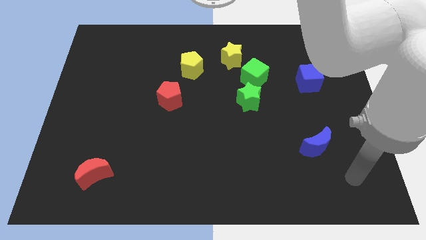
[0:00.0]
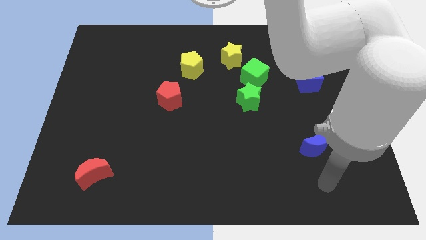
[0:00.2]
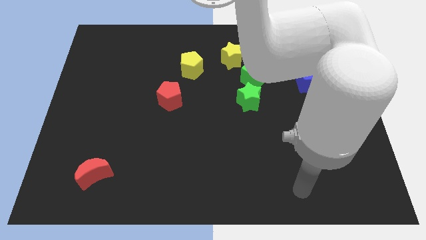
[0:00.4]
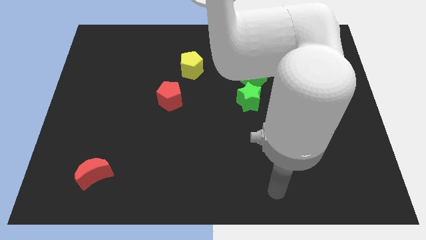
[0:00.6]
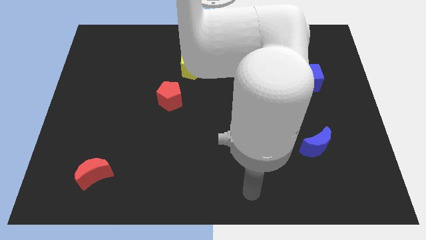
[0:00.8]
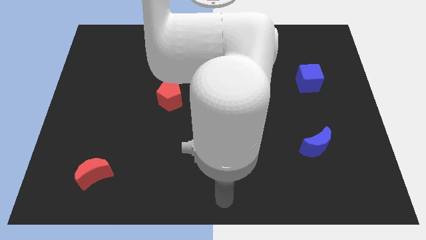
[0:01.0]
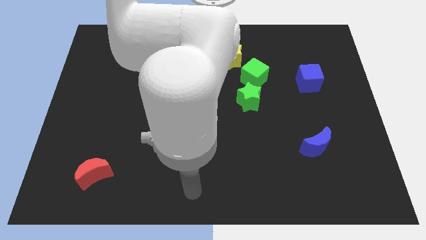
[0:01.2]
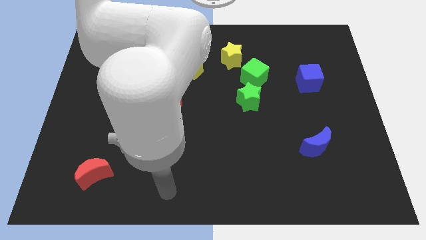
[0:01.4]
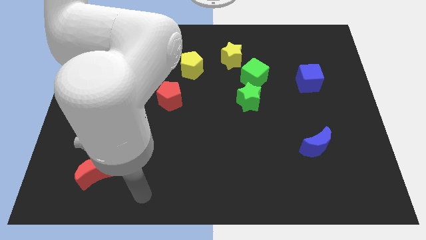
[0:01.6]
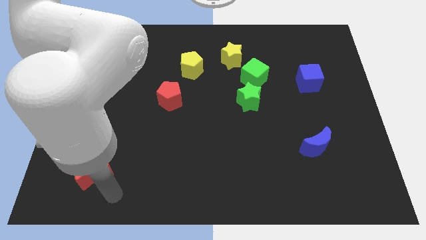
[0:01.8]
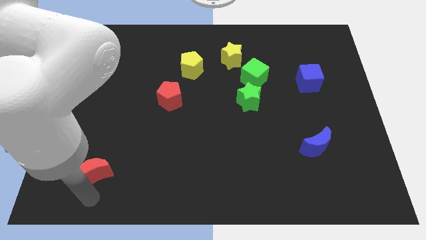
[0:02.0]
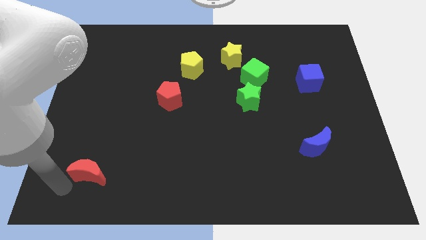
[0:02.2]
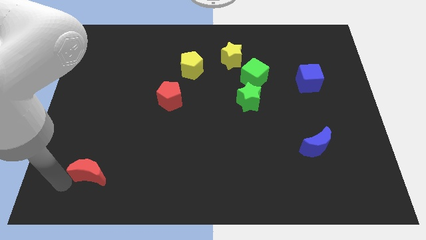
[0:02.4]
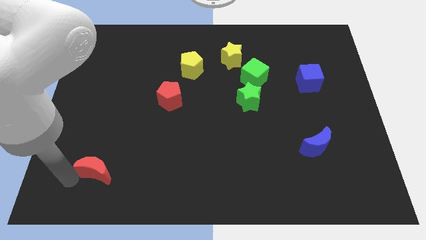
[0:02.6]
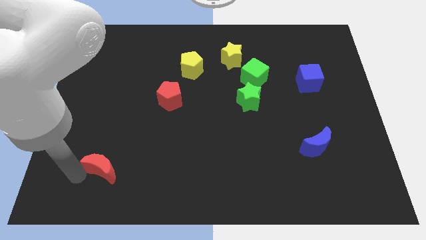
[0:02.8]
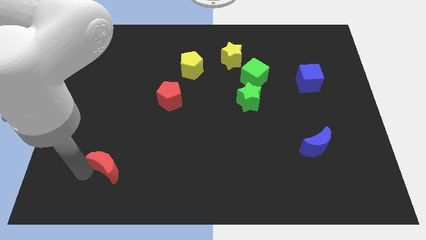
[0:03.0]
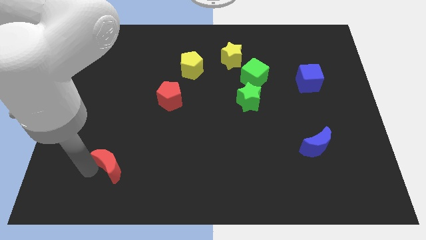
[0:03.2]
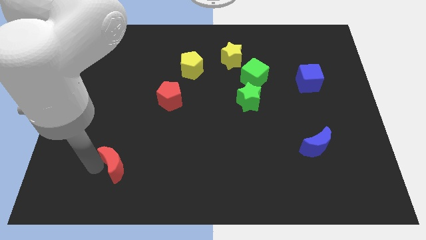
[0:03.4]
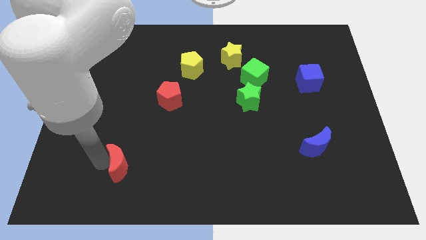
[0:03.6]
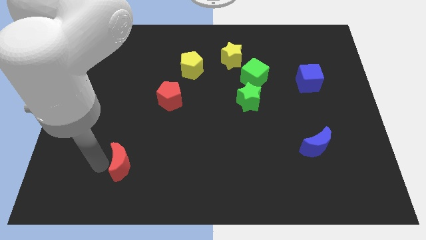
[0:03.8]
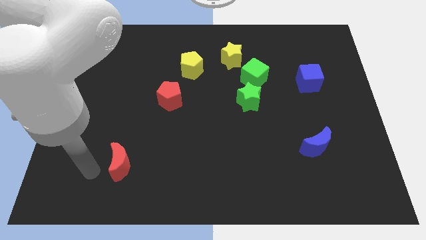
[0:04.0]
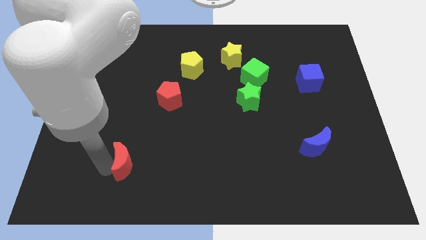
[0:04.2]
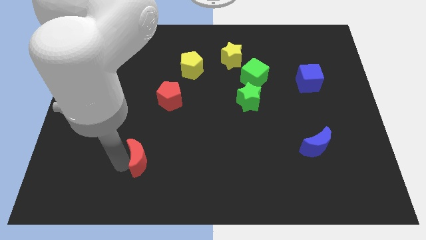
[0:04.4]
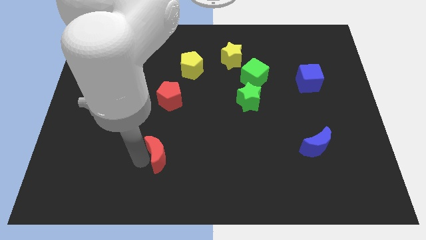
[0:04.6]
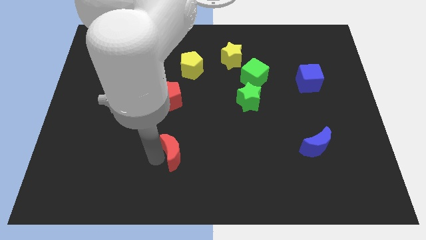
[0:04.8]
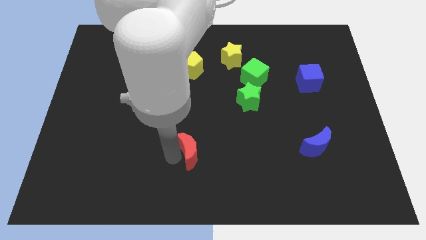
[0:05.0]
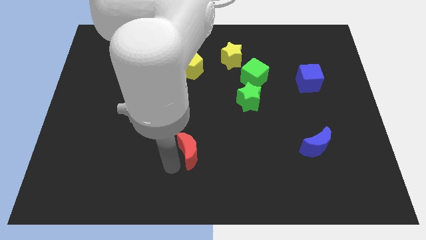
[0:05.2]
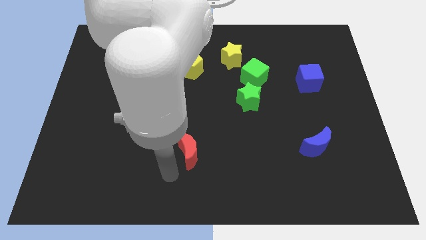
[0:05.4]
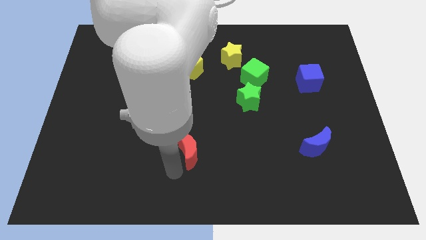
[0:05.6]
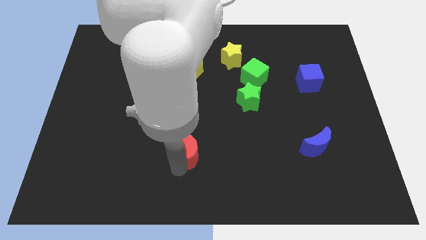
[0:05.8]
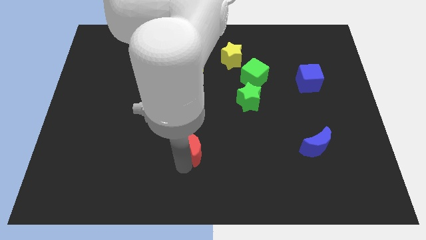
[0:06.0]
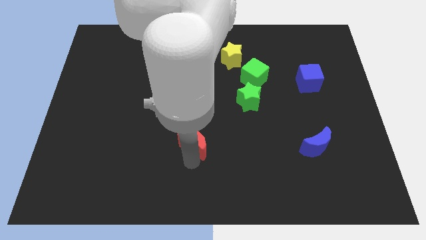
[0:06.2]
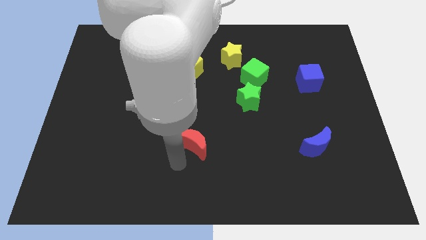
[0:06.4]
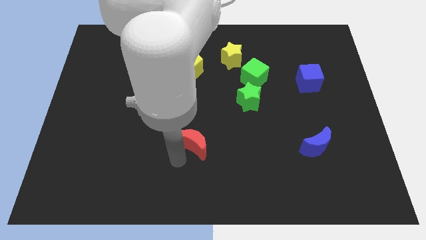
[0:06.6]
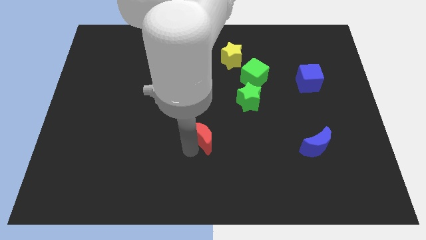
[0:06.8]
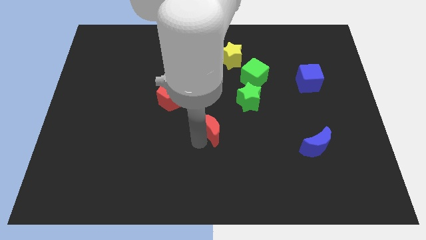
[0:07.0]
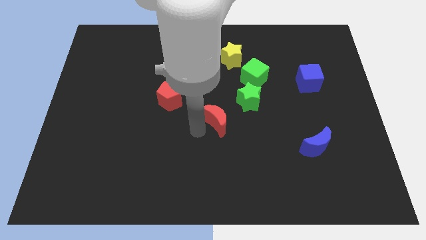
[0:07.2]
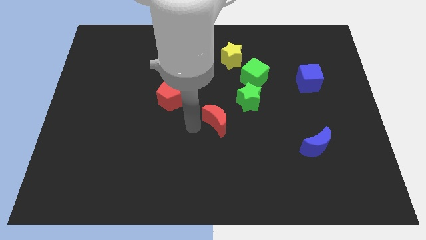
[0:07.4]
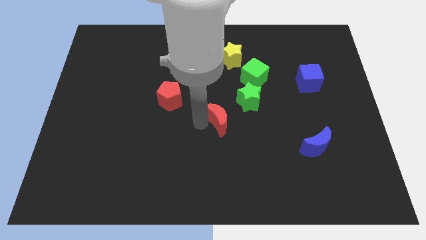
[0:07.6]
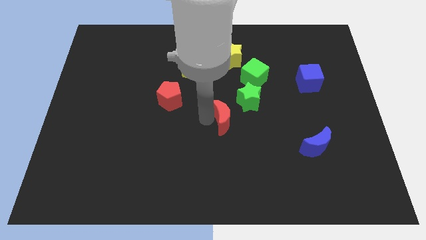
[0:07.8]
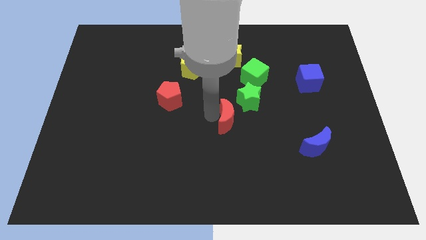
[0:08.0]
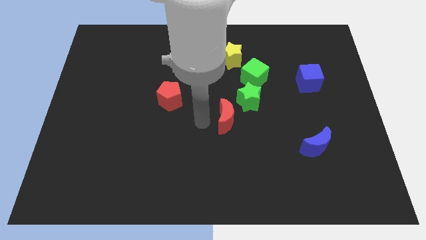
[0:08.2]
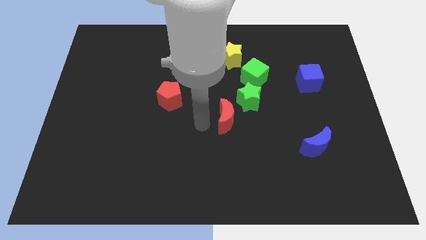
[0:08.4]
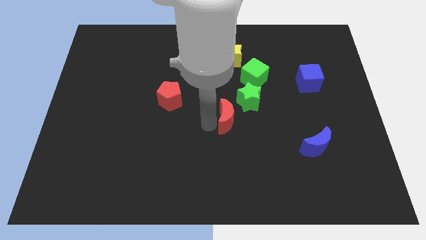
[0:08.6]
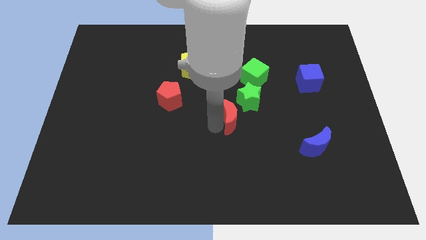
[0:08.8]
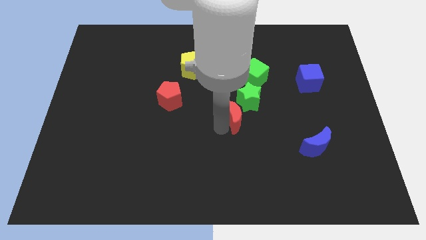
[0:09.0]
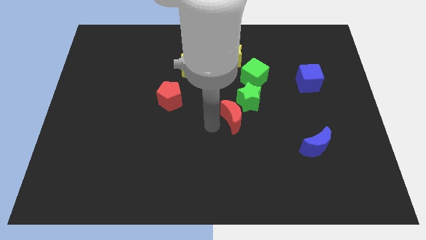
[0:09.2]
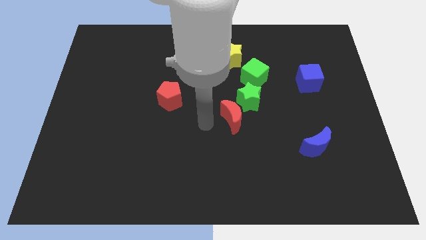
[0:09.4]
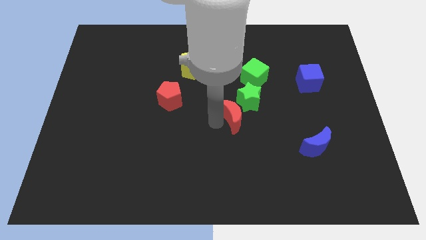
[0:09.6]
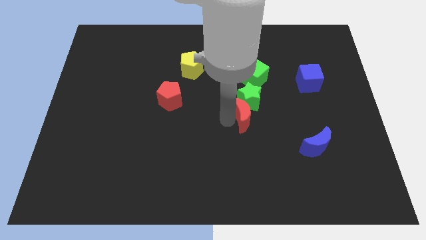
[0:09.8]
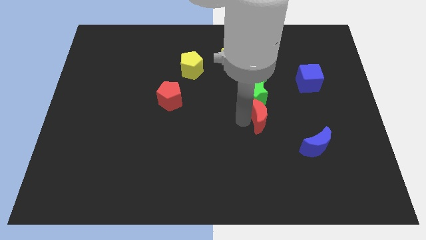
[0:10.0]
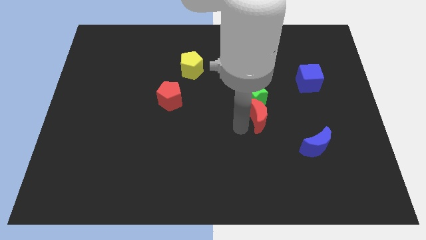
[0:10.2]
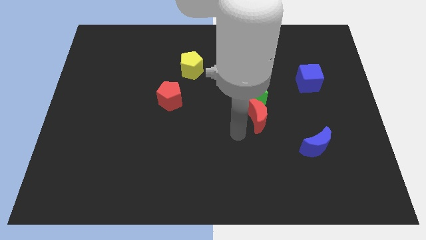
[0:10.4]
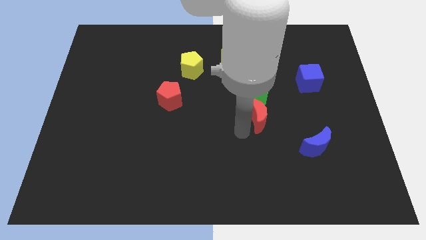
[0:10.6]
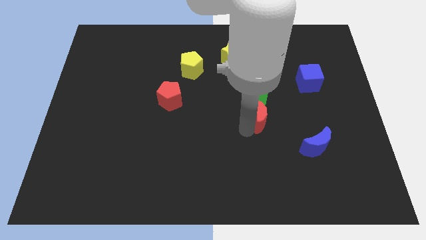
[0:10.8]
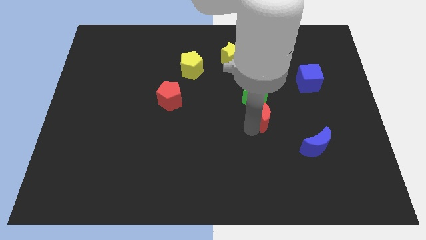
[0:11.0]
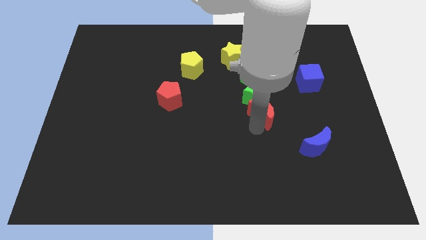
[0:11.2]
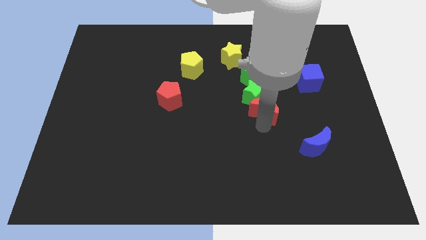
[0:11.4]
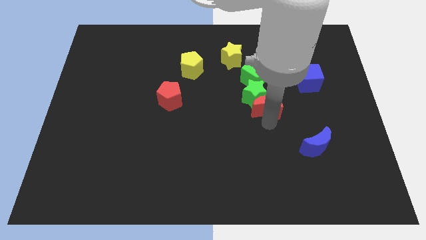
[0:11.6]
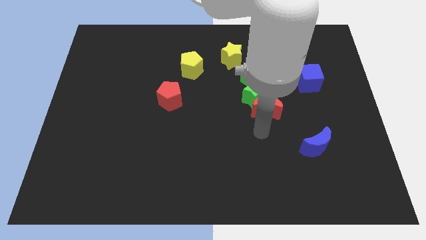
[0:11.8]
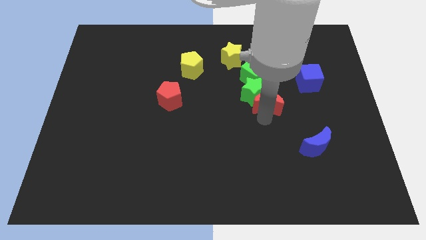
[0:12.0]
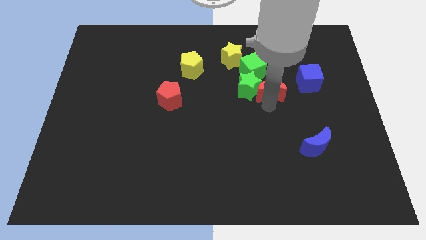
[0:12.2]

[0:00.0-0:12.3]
move the red moon to the top right of the green star

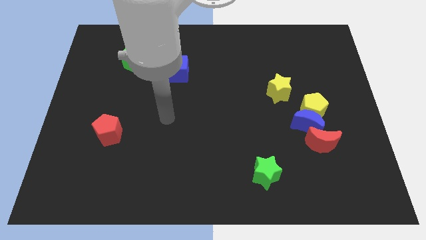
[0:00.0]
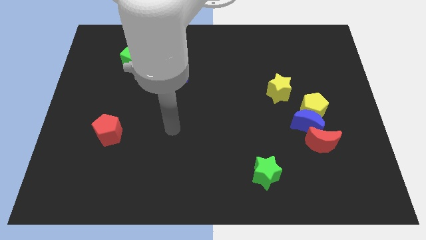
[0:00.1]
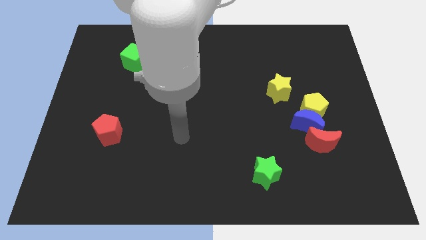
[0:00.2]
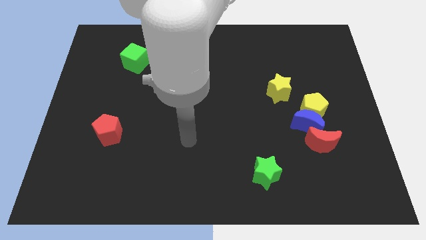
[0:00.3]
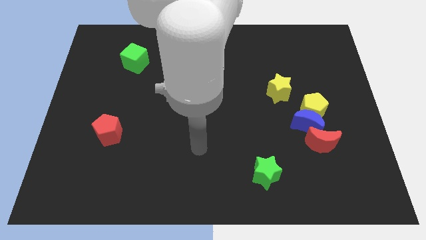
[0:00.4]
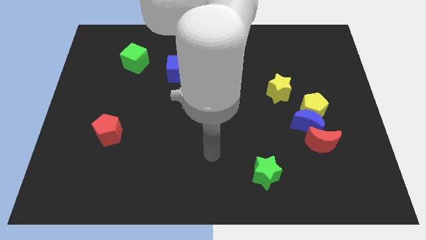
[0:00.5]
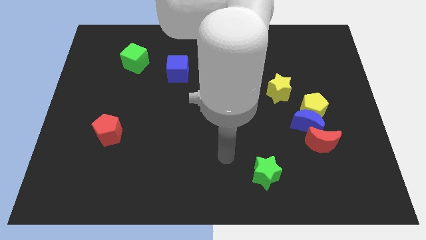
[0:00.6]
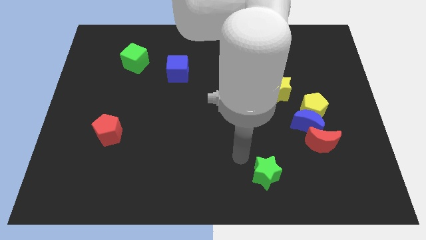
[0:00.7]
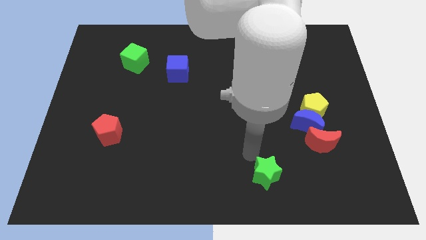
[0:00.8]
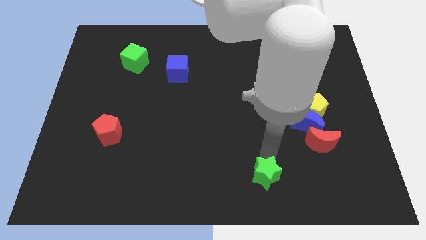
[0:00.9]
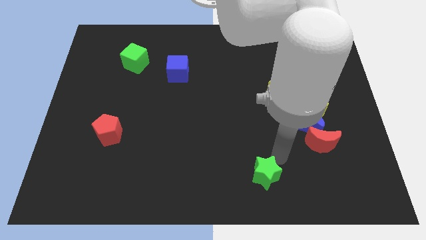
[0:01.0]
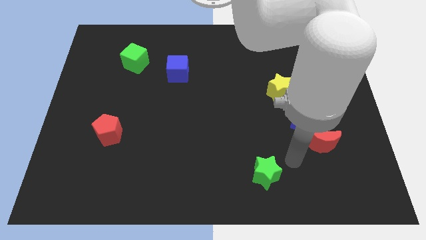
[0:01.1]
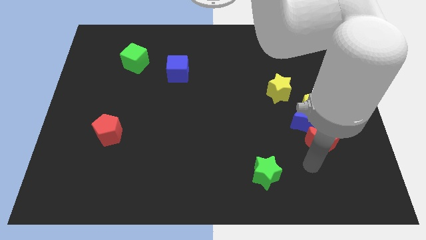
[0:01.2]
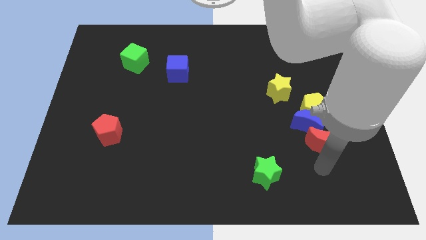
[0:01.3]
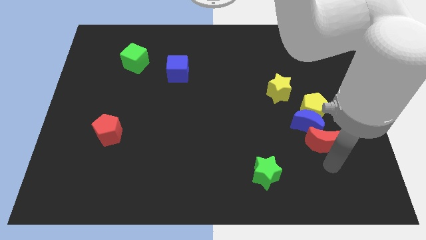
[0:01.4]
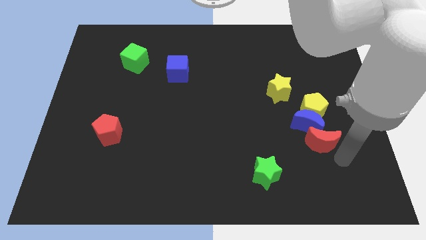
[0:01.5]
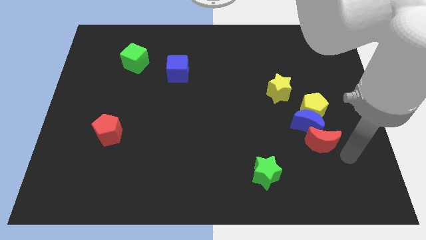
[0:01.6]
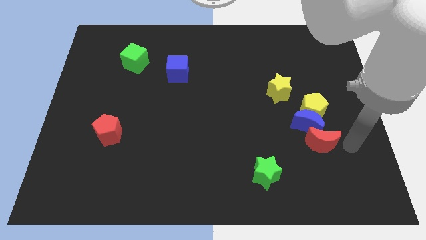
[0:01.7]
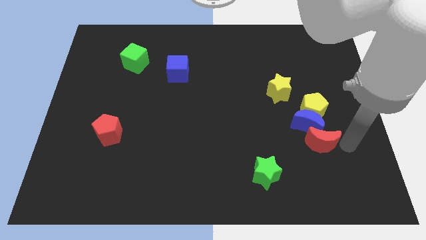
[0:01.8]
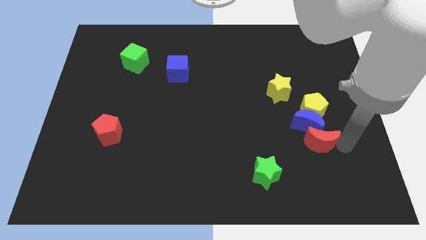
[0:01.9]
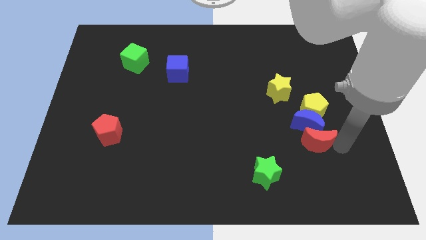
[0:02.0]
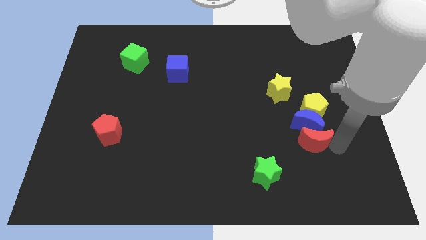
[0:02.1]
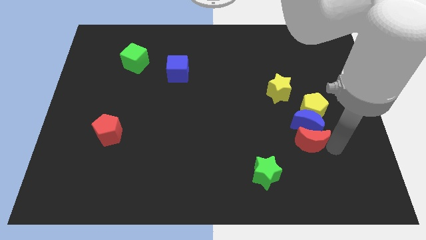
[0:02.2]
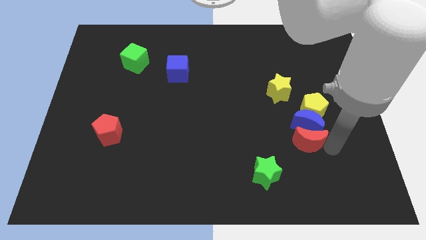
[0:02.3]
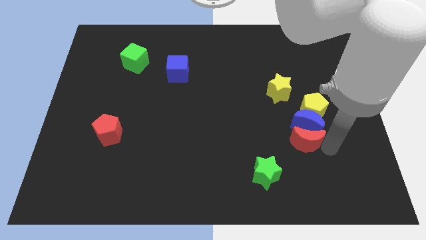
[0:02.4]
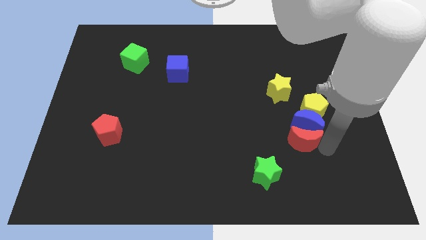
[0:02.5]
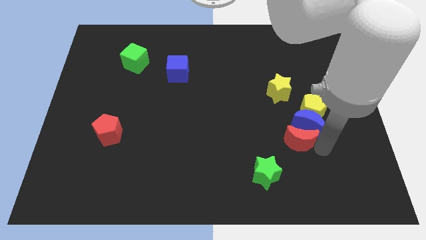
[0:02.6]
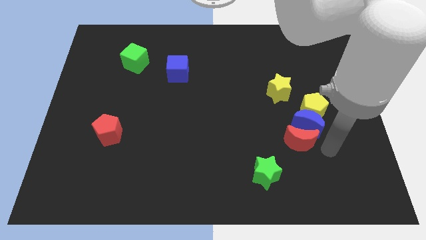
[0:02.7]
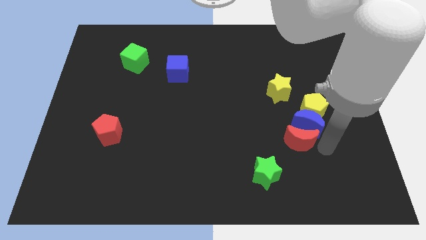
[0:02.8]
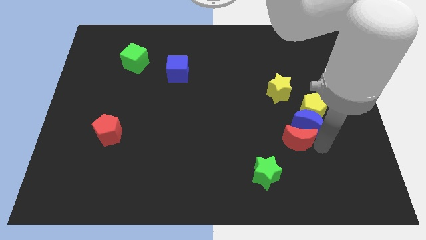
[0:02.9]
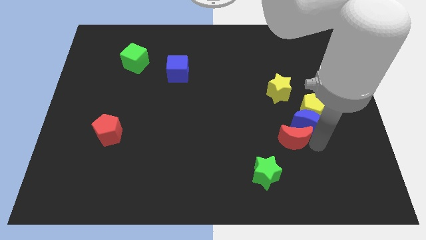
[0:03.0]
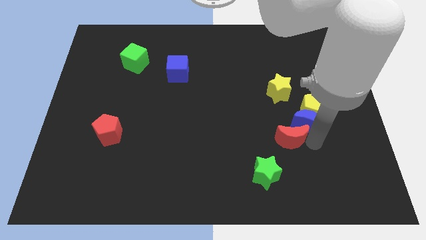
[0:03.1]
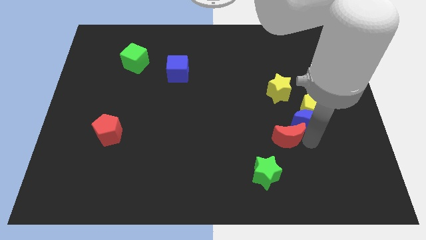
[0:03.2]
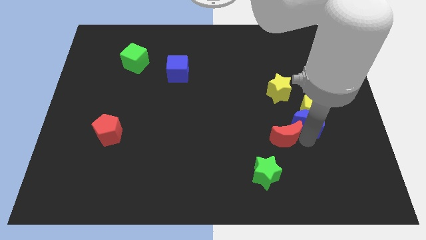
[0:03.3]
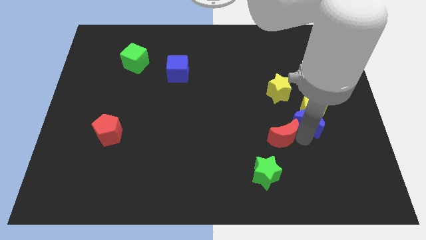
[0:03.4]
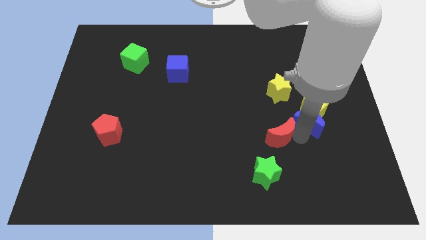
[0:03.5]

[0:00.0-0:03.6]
slide the red moon to the top side of the green star
